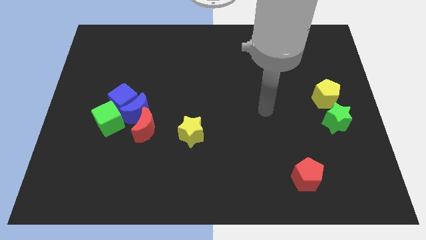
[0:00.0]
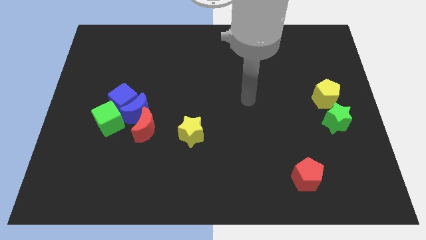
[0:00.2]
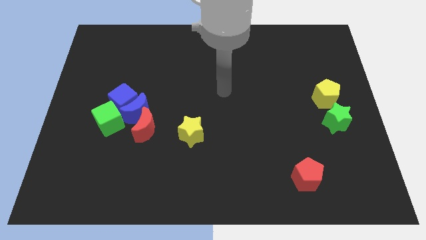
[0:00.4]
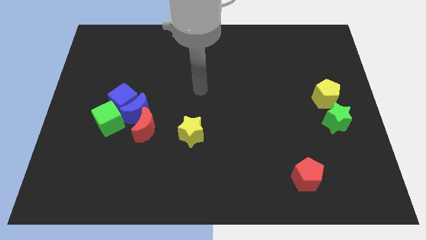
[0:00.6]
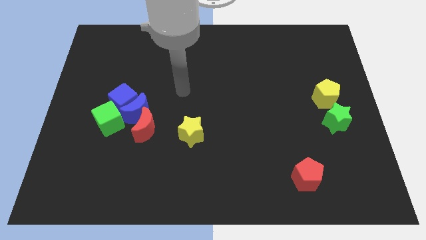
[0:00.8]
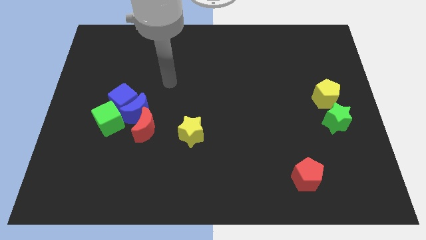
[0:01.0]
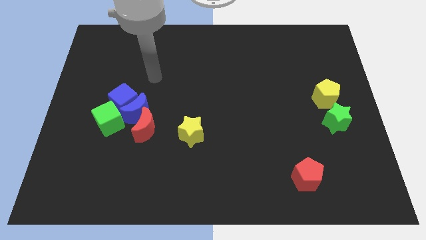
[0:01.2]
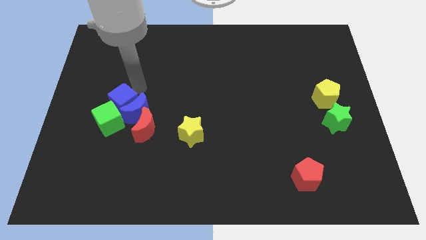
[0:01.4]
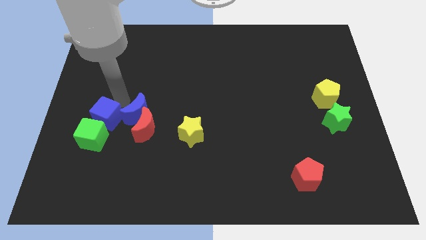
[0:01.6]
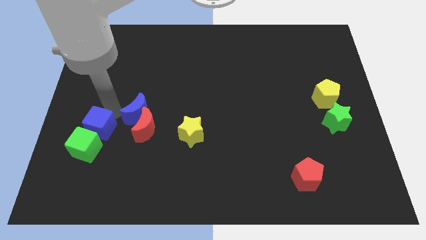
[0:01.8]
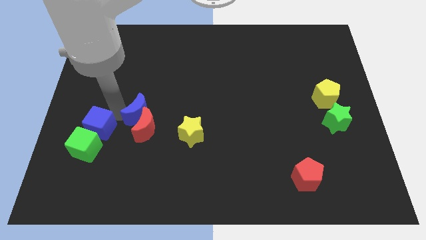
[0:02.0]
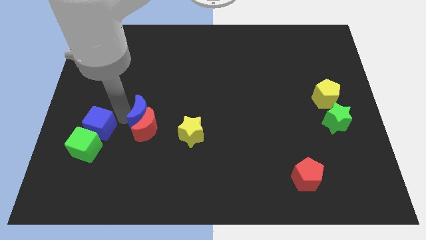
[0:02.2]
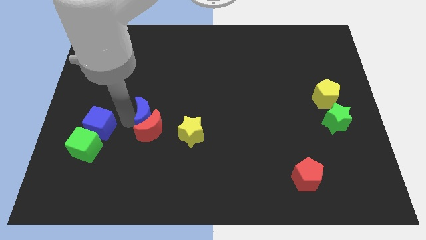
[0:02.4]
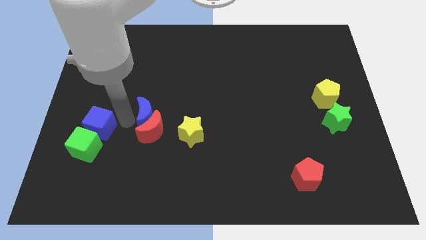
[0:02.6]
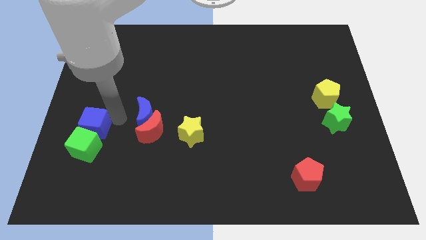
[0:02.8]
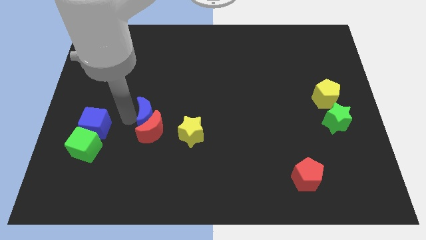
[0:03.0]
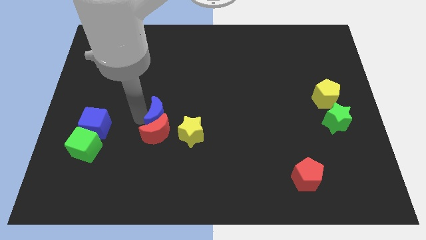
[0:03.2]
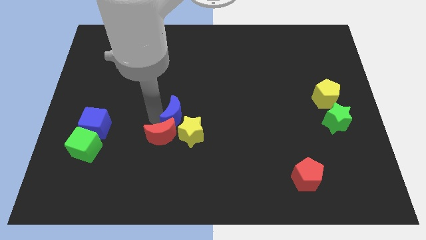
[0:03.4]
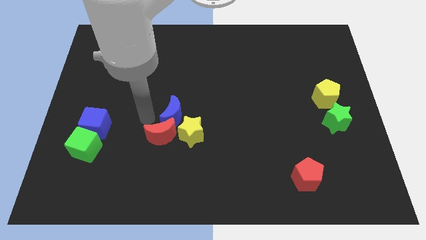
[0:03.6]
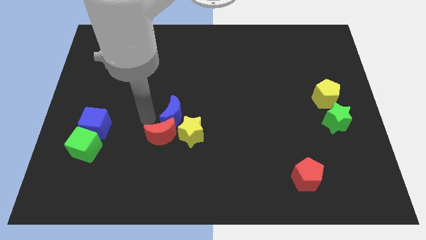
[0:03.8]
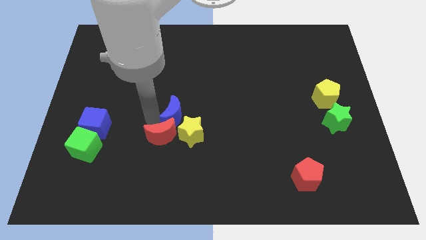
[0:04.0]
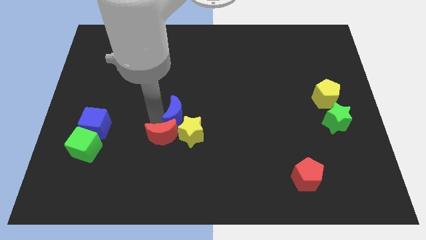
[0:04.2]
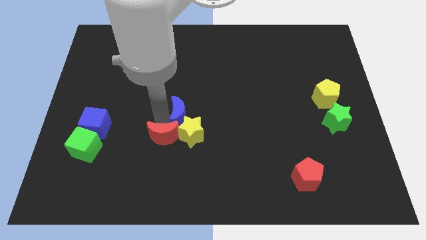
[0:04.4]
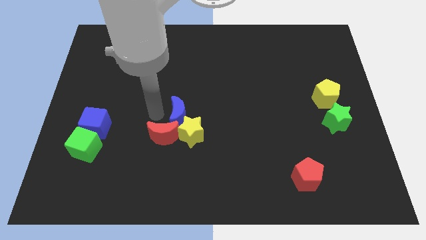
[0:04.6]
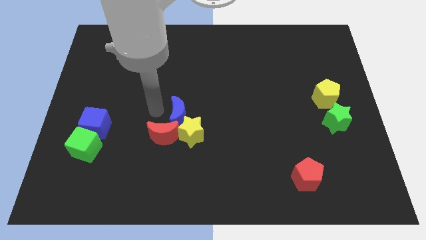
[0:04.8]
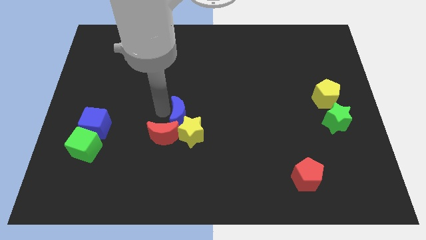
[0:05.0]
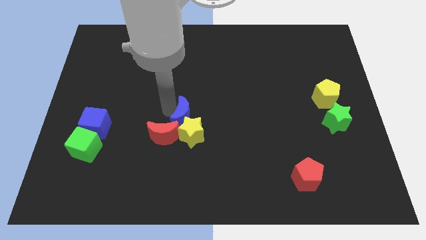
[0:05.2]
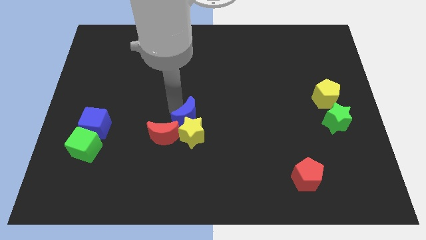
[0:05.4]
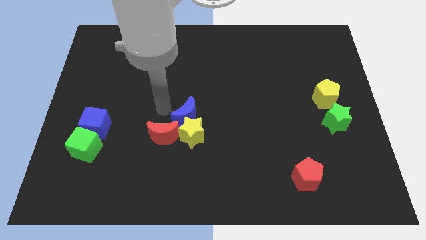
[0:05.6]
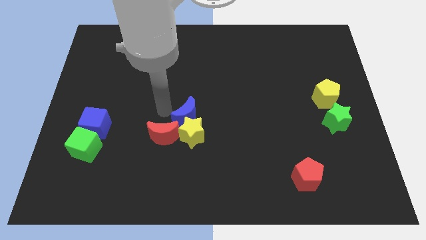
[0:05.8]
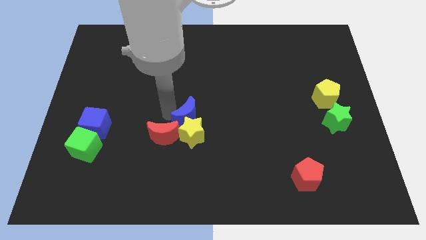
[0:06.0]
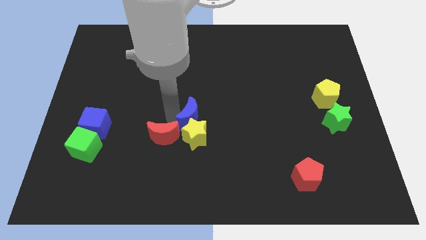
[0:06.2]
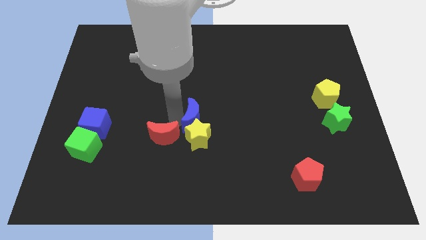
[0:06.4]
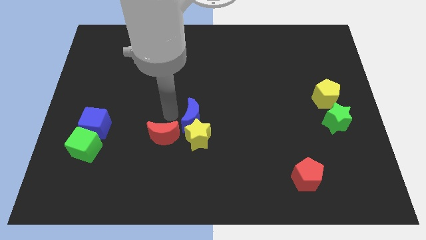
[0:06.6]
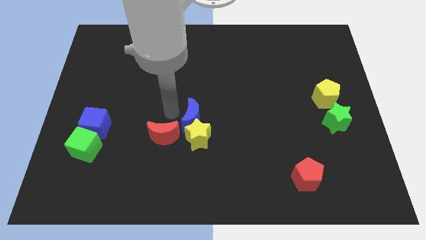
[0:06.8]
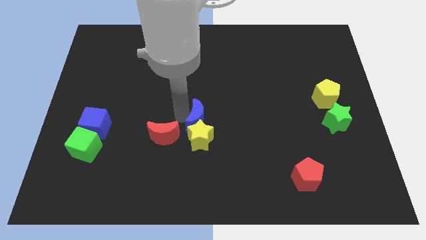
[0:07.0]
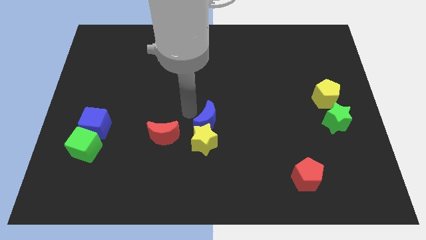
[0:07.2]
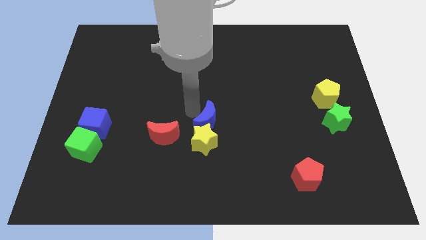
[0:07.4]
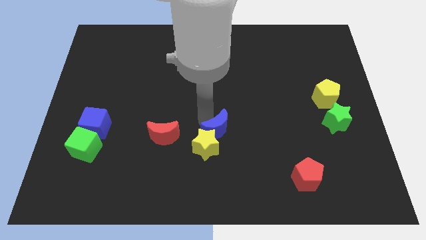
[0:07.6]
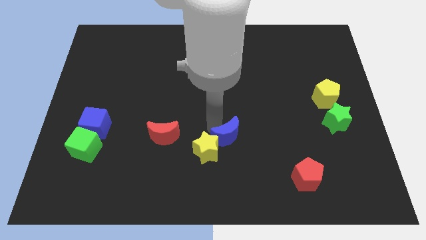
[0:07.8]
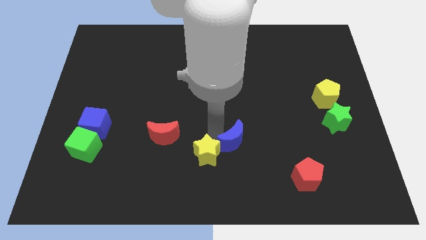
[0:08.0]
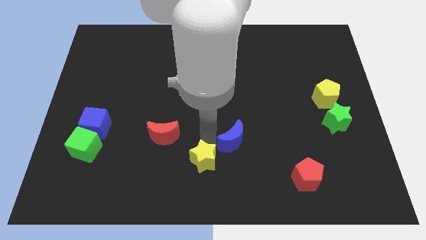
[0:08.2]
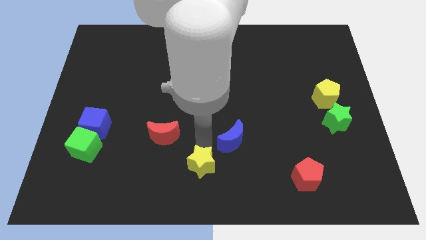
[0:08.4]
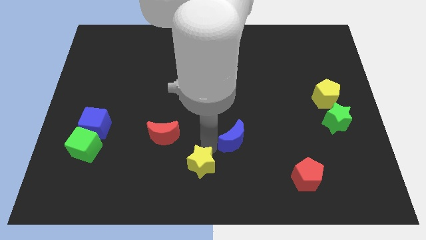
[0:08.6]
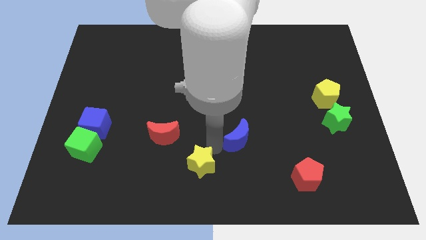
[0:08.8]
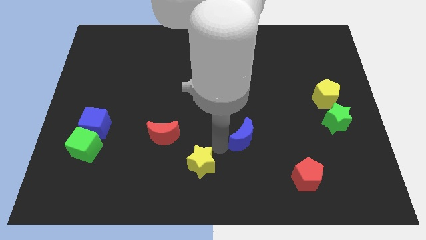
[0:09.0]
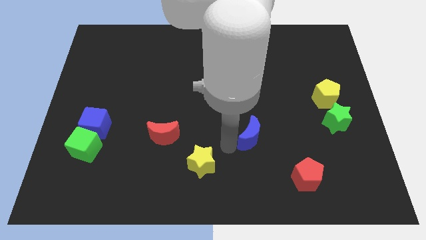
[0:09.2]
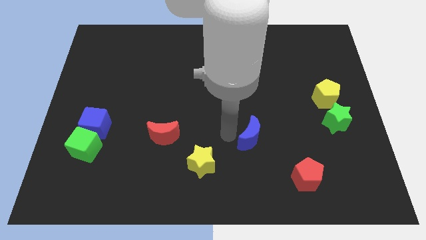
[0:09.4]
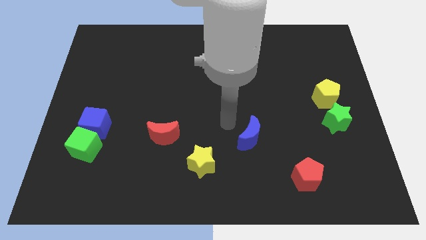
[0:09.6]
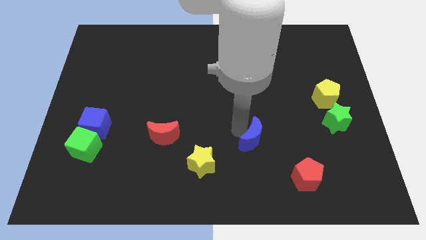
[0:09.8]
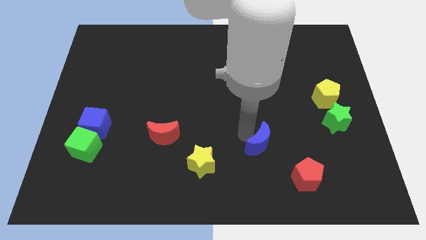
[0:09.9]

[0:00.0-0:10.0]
put the blue moon to the top left side of the red pentagon

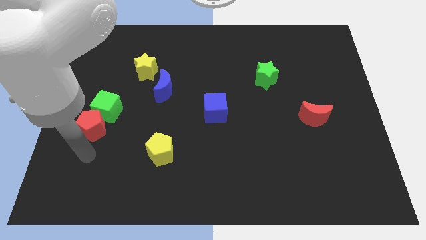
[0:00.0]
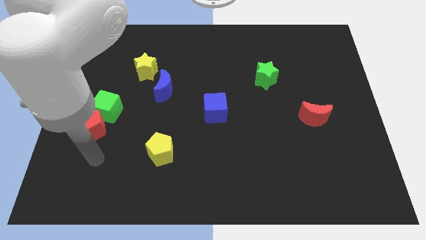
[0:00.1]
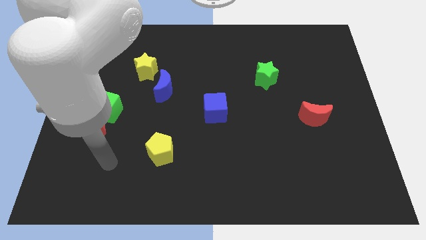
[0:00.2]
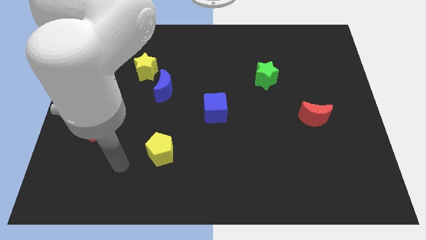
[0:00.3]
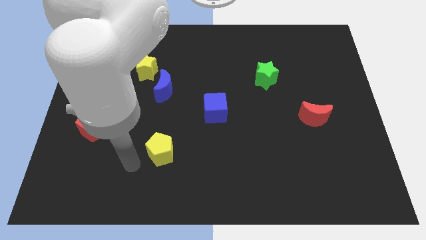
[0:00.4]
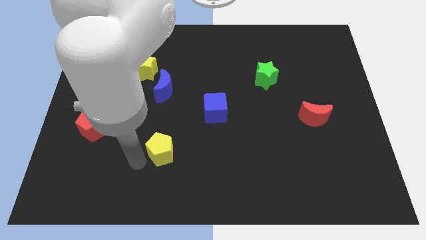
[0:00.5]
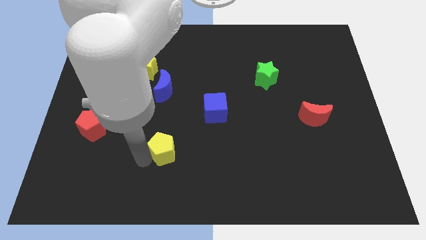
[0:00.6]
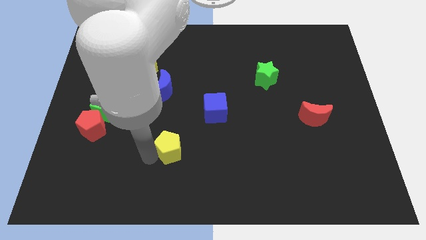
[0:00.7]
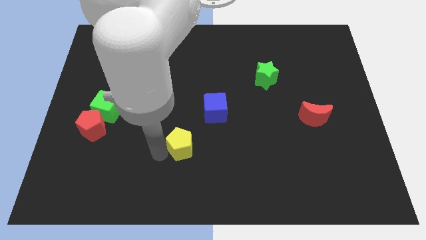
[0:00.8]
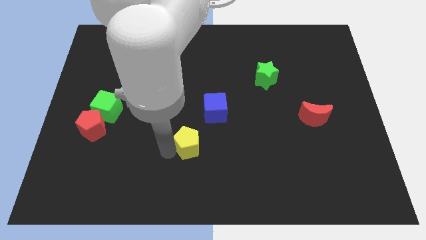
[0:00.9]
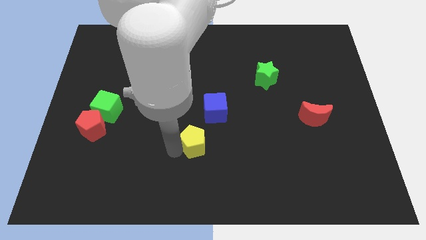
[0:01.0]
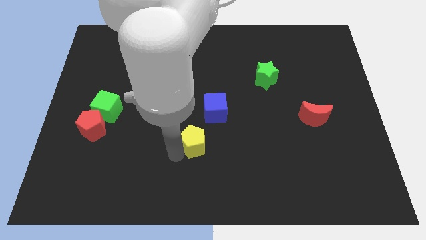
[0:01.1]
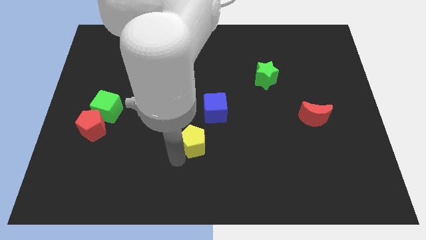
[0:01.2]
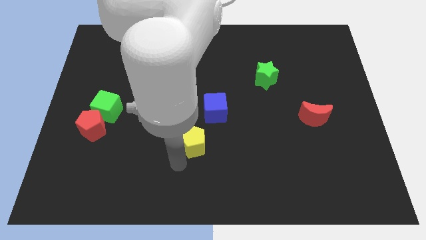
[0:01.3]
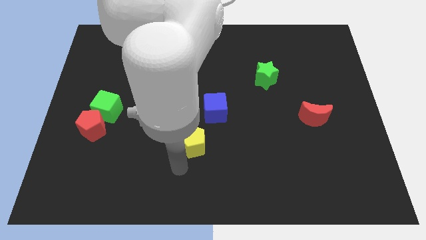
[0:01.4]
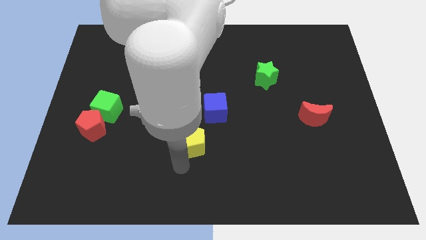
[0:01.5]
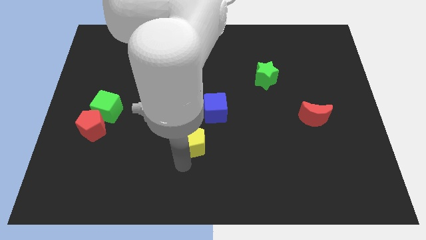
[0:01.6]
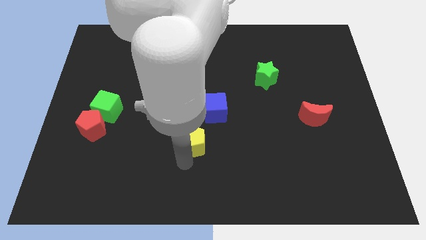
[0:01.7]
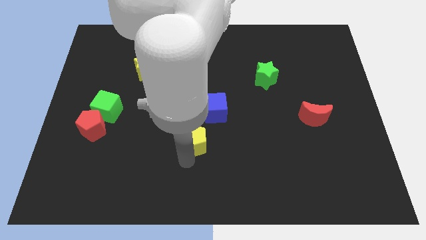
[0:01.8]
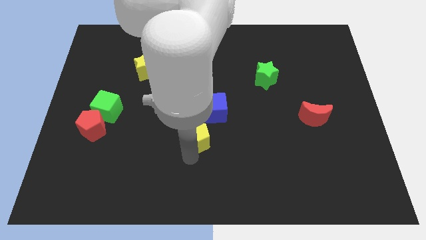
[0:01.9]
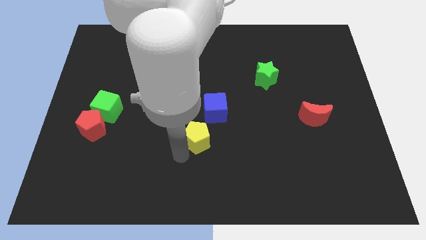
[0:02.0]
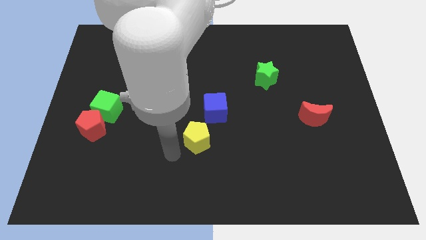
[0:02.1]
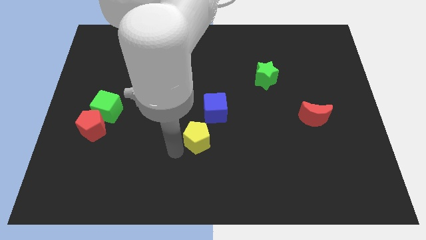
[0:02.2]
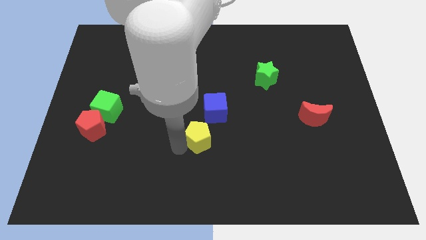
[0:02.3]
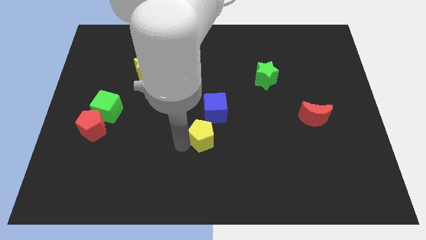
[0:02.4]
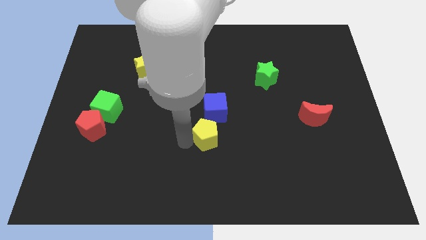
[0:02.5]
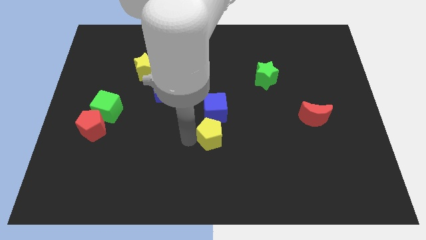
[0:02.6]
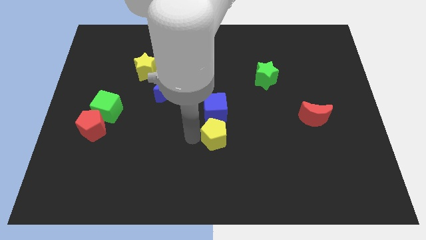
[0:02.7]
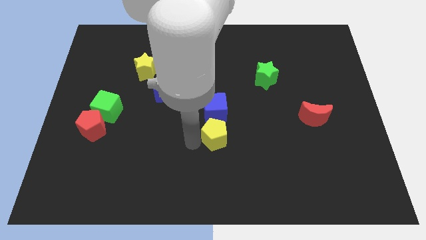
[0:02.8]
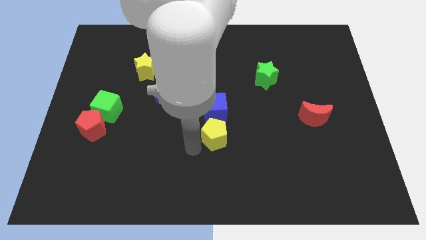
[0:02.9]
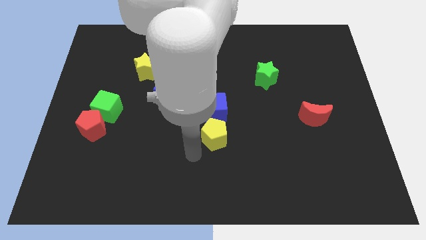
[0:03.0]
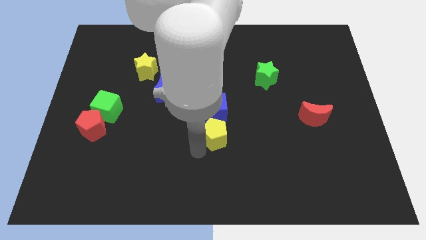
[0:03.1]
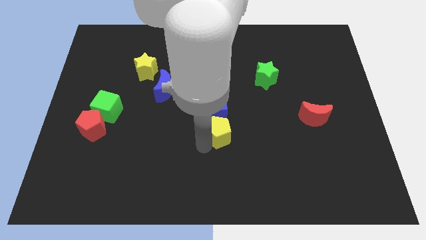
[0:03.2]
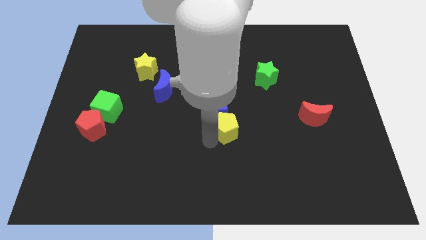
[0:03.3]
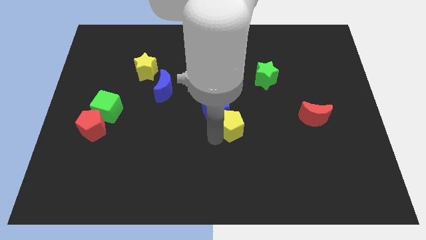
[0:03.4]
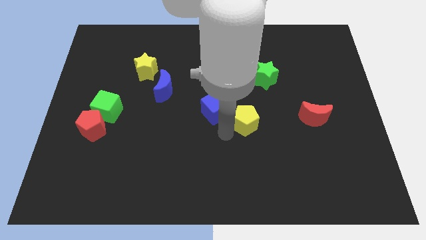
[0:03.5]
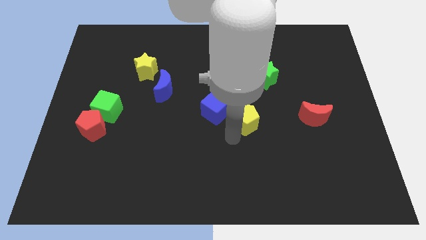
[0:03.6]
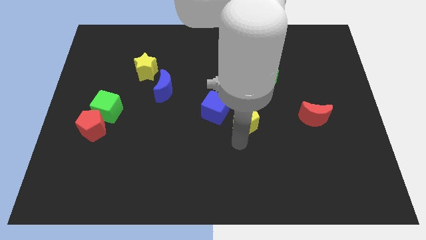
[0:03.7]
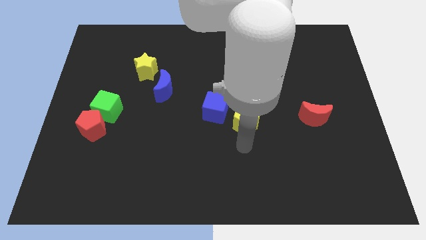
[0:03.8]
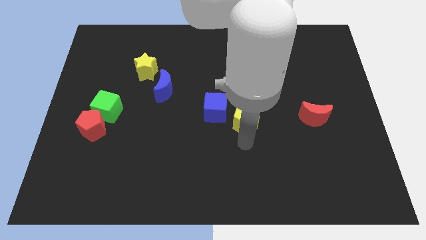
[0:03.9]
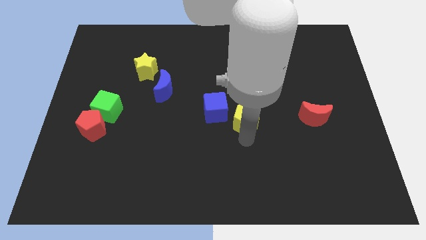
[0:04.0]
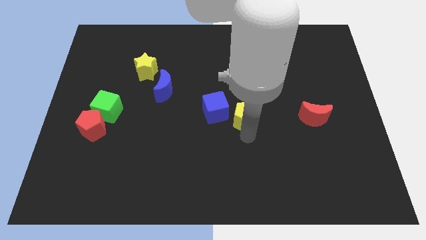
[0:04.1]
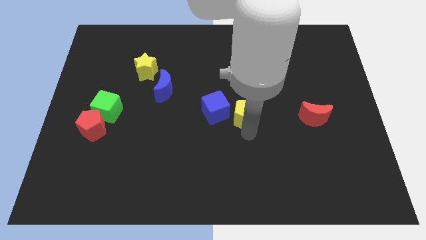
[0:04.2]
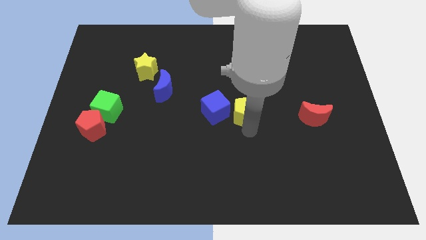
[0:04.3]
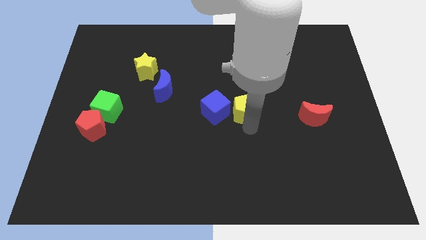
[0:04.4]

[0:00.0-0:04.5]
slide the yellow pentagon diagonally down and to the left of the green star
